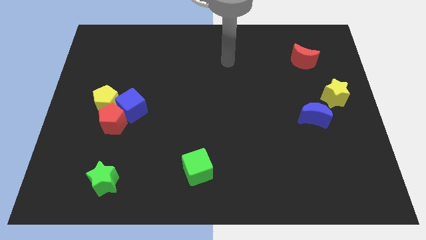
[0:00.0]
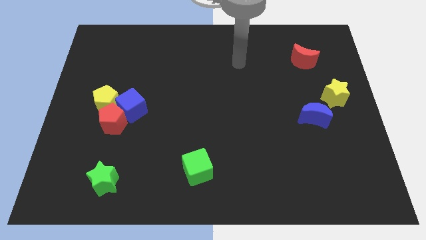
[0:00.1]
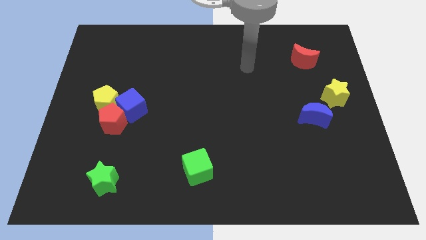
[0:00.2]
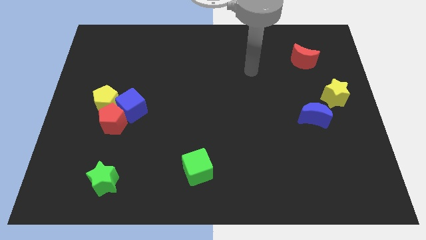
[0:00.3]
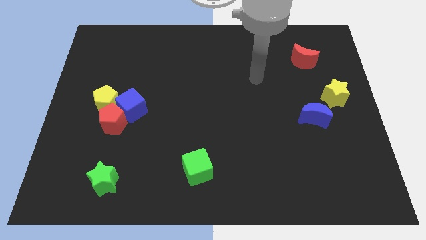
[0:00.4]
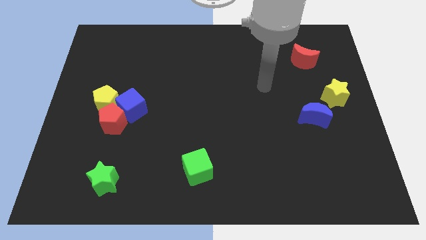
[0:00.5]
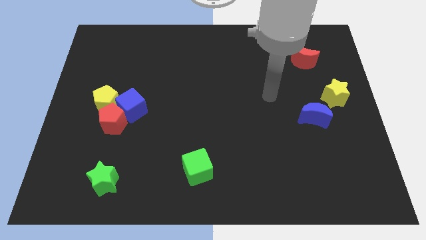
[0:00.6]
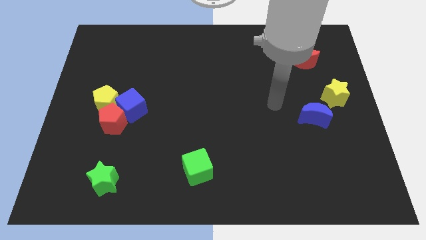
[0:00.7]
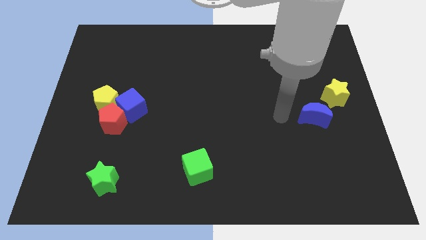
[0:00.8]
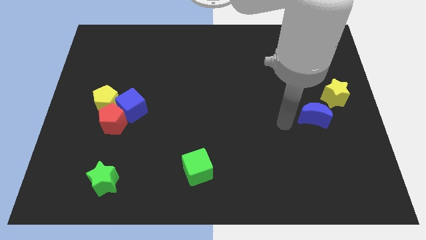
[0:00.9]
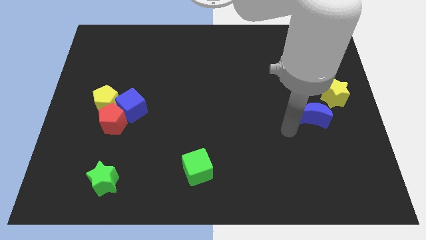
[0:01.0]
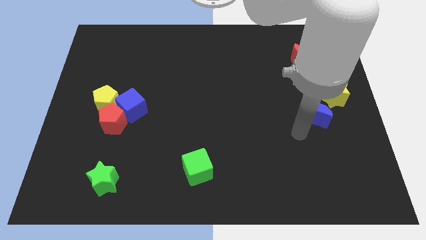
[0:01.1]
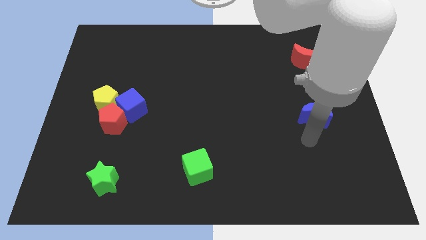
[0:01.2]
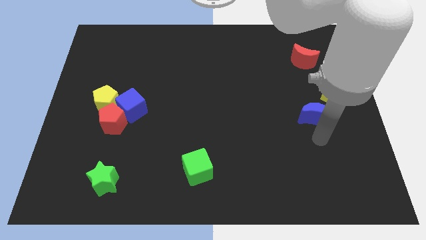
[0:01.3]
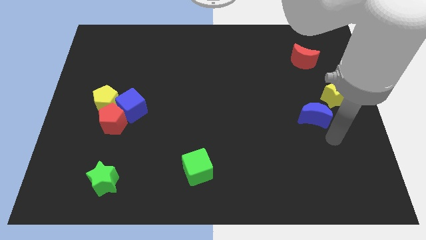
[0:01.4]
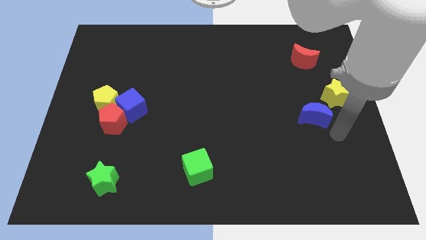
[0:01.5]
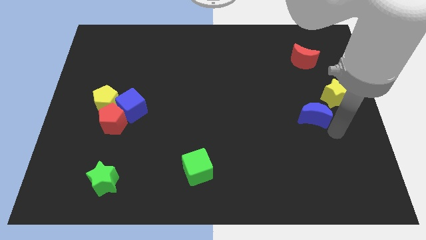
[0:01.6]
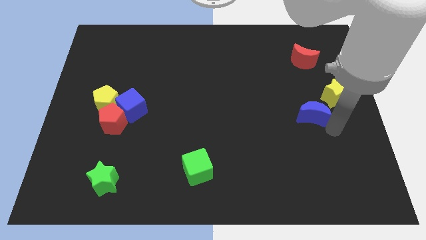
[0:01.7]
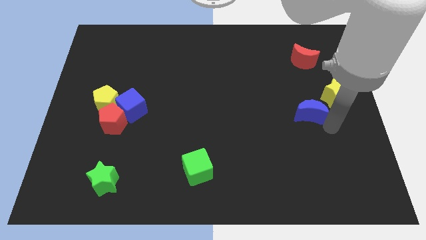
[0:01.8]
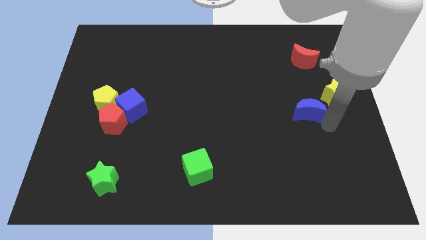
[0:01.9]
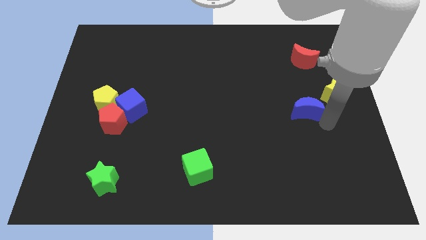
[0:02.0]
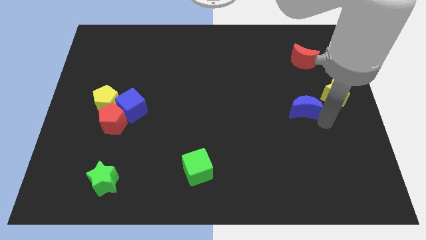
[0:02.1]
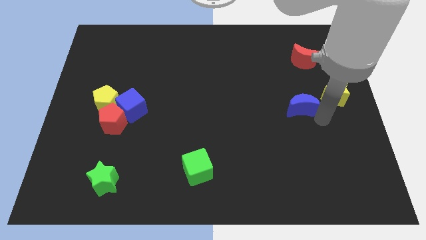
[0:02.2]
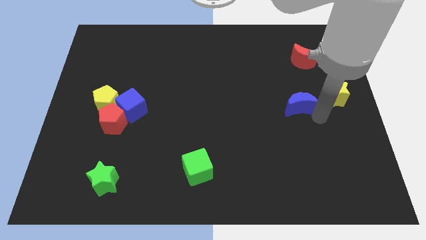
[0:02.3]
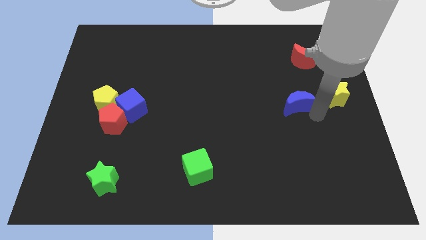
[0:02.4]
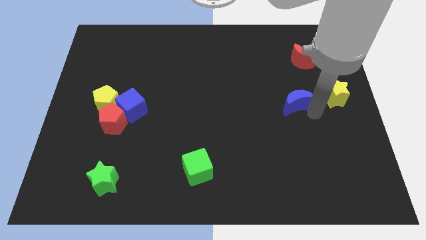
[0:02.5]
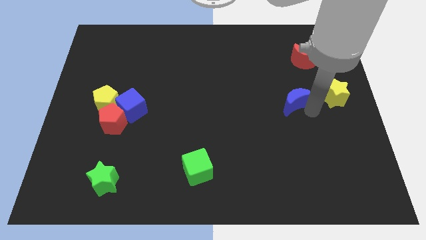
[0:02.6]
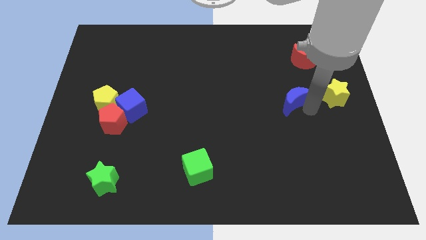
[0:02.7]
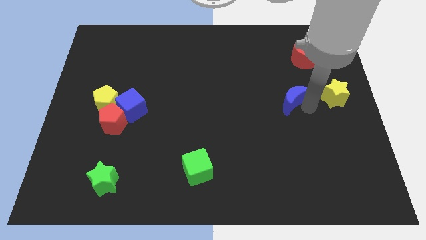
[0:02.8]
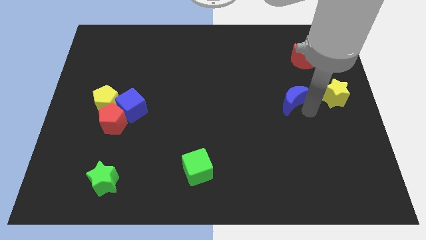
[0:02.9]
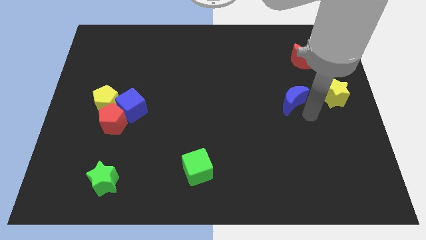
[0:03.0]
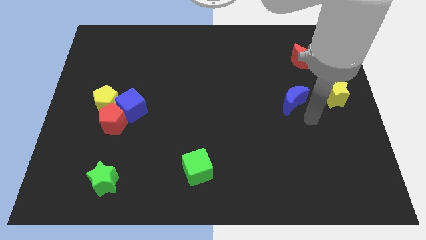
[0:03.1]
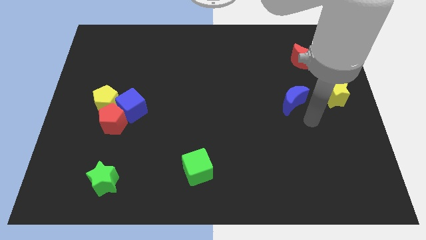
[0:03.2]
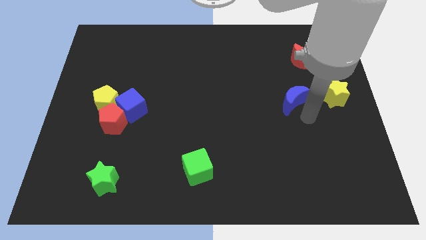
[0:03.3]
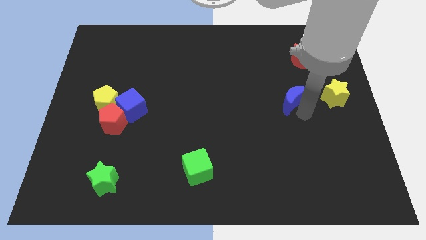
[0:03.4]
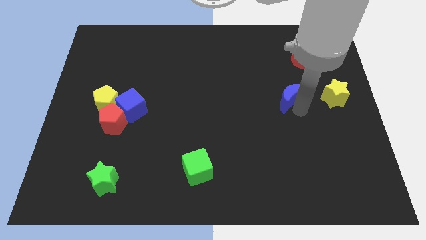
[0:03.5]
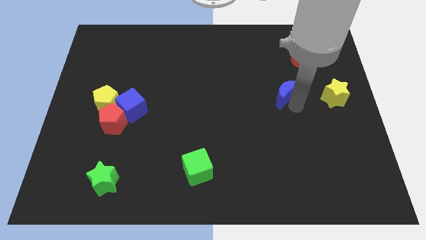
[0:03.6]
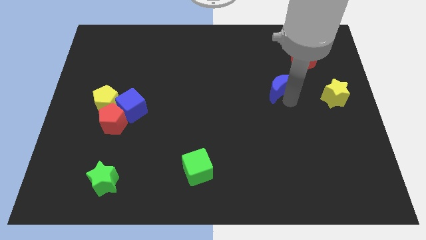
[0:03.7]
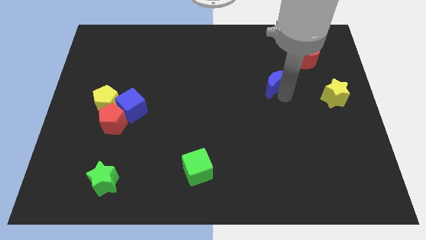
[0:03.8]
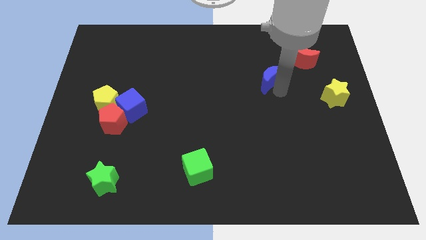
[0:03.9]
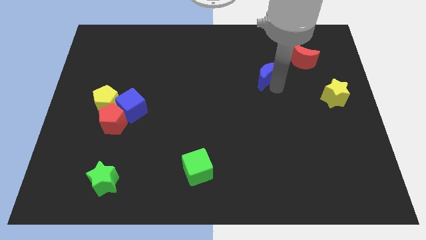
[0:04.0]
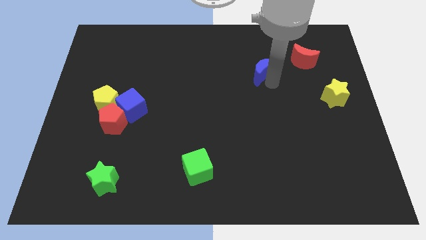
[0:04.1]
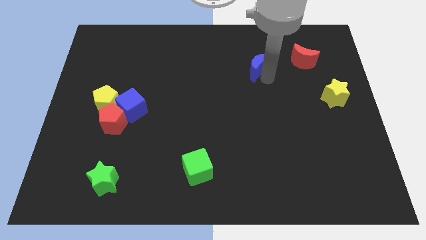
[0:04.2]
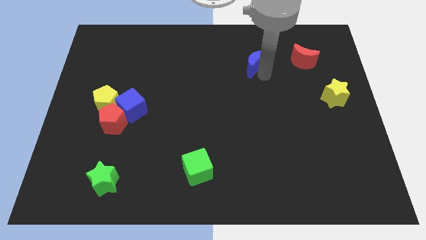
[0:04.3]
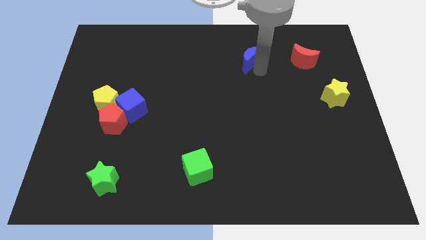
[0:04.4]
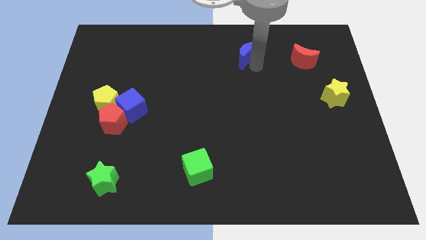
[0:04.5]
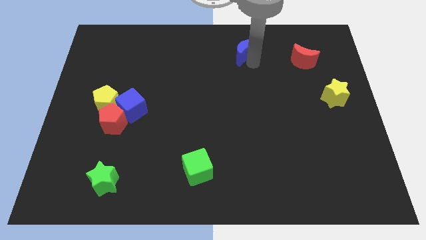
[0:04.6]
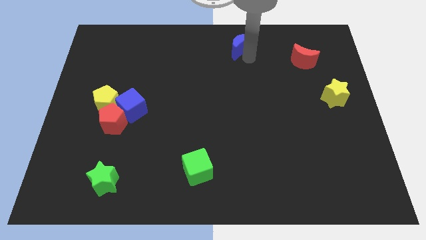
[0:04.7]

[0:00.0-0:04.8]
push the blue moon to the top side

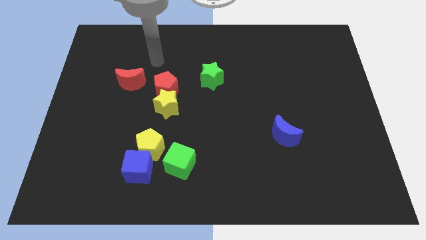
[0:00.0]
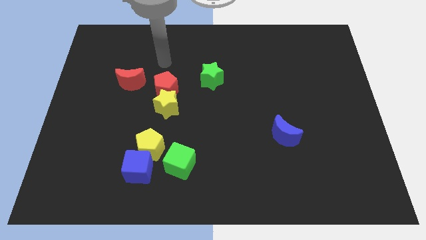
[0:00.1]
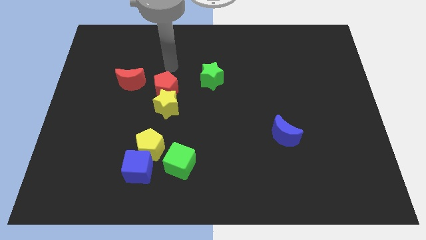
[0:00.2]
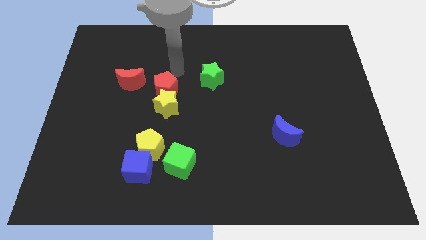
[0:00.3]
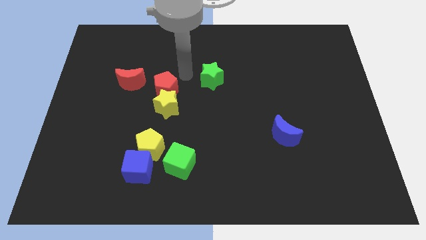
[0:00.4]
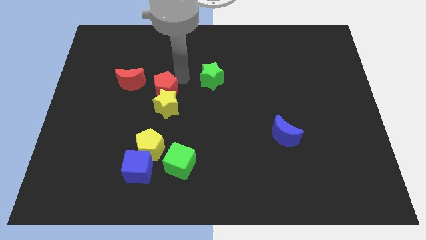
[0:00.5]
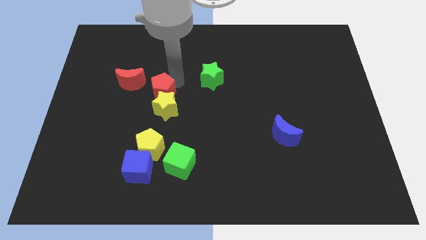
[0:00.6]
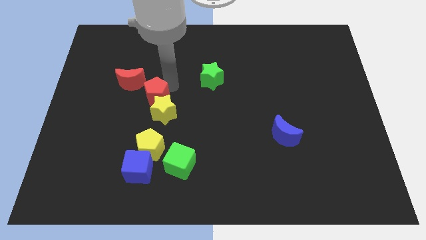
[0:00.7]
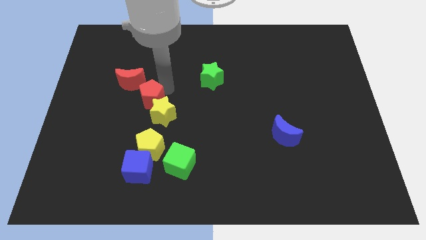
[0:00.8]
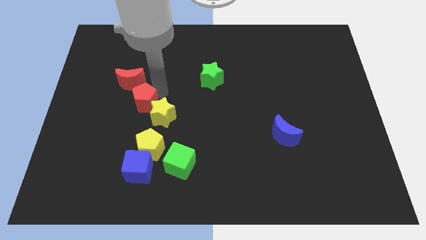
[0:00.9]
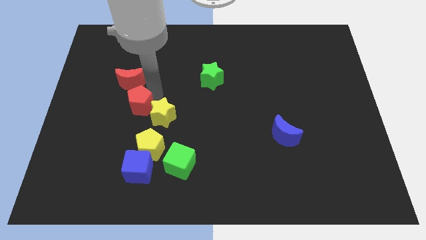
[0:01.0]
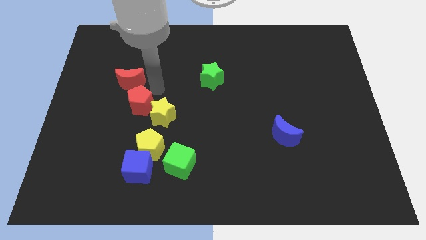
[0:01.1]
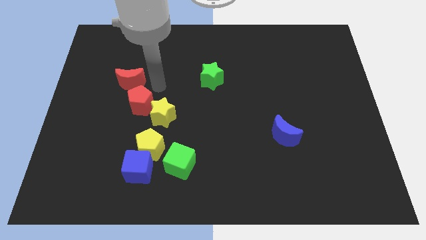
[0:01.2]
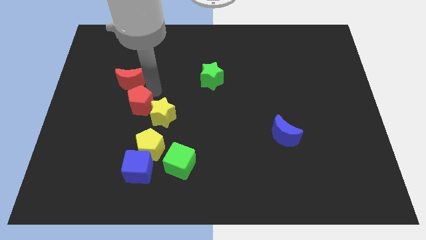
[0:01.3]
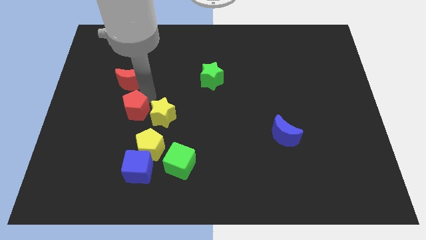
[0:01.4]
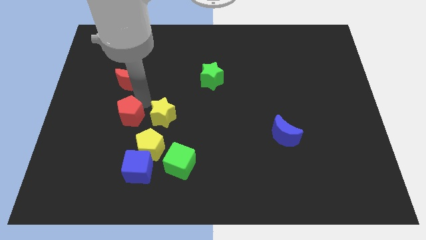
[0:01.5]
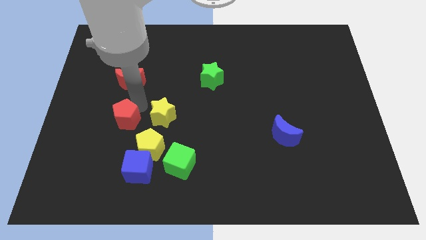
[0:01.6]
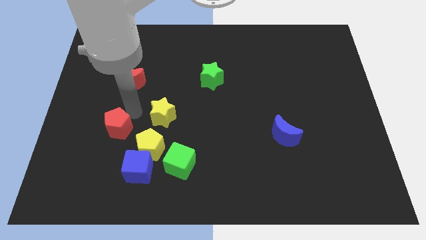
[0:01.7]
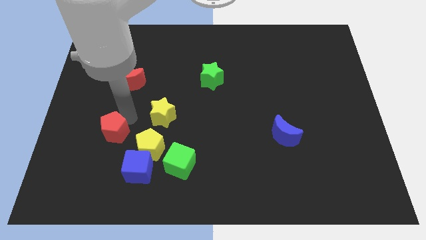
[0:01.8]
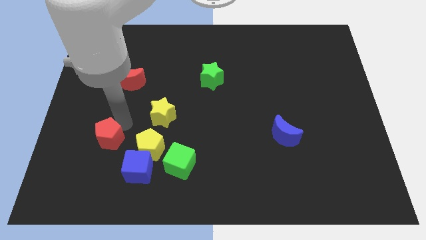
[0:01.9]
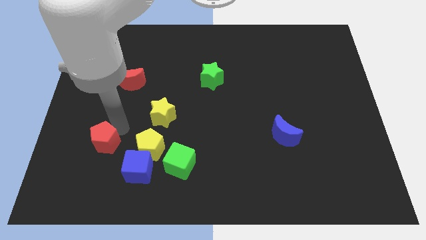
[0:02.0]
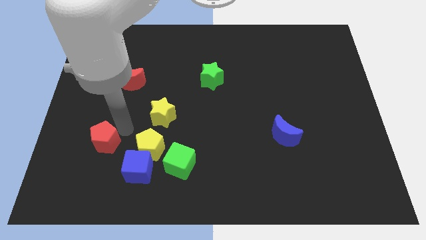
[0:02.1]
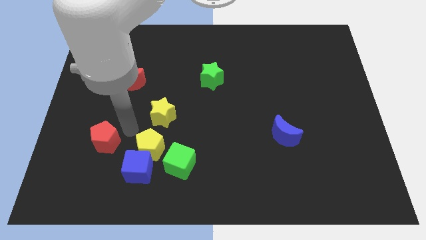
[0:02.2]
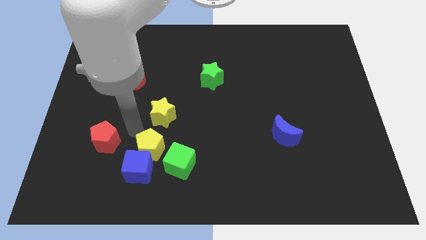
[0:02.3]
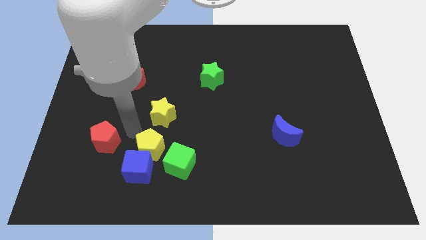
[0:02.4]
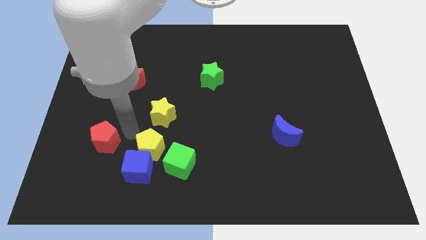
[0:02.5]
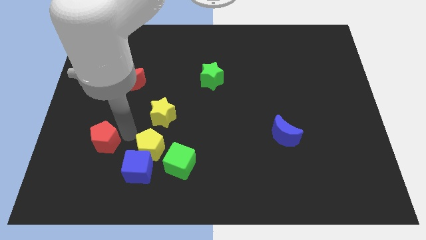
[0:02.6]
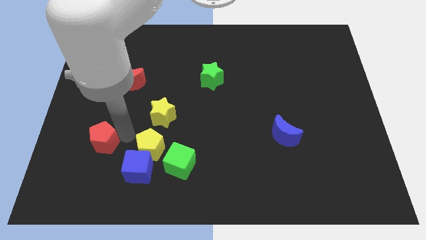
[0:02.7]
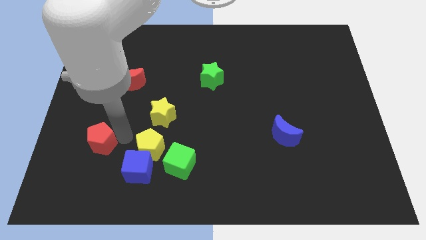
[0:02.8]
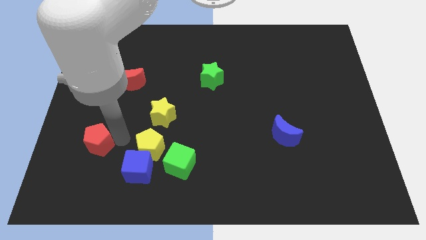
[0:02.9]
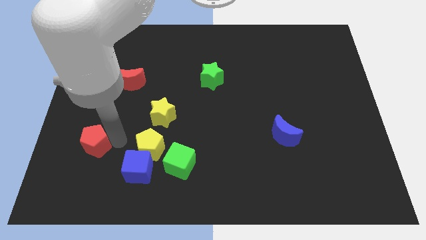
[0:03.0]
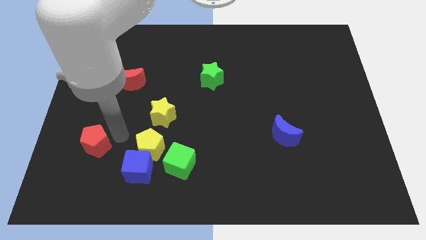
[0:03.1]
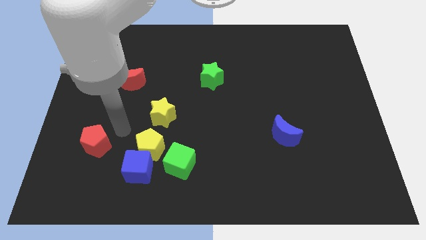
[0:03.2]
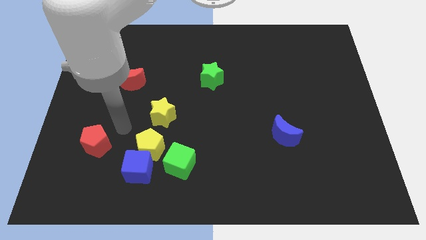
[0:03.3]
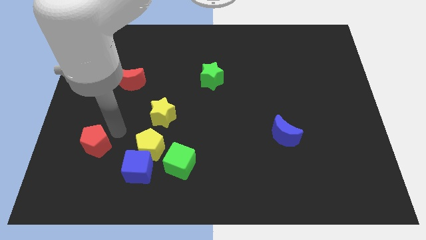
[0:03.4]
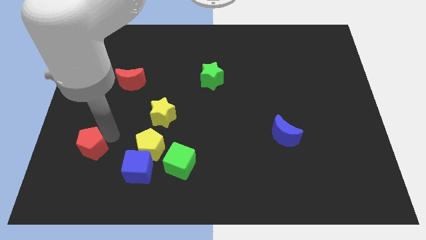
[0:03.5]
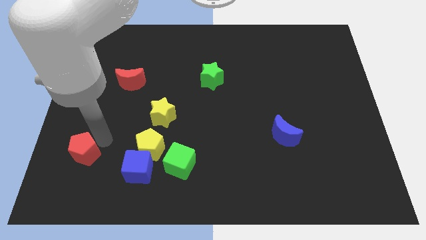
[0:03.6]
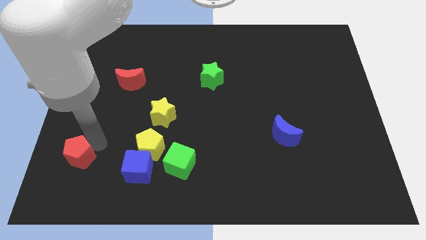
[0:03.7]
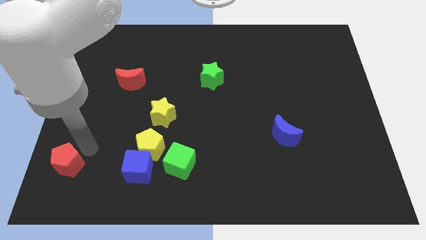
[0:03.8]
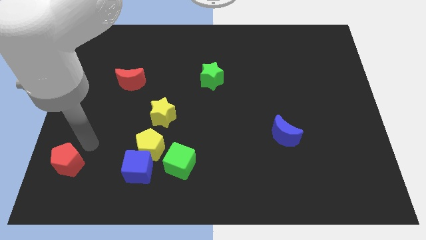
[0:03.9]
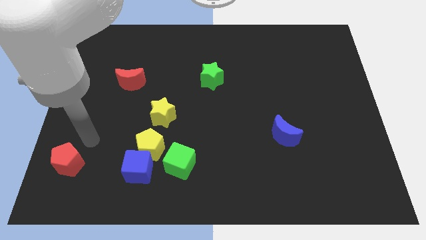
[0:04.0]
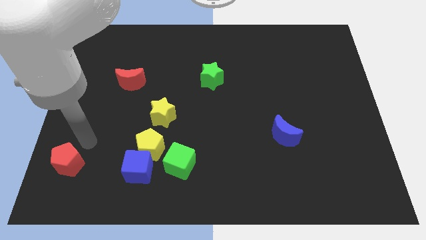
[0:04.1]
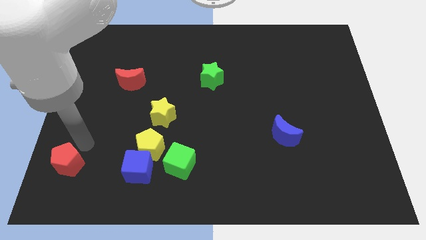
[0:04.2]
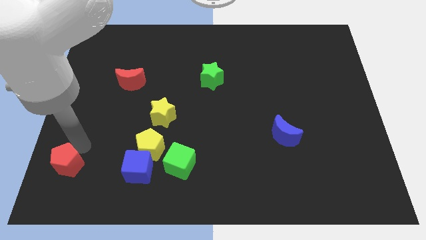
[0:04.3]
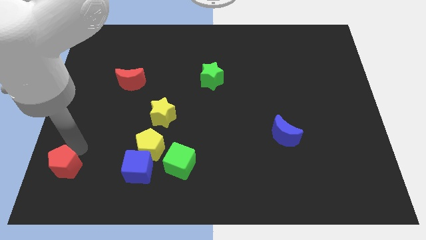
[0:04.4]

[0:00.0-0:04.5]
slide the red pentagon to the bottom left of the board
